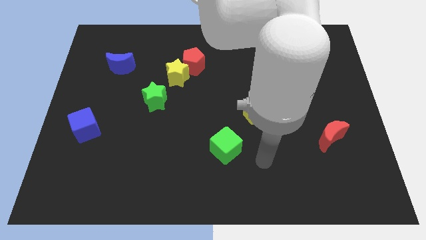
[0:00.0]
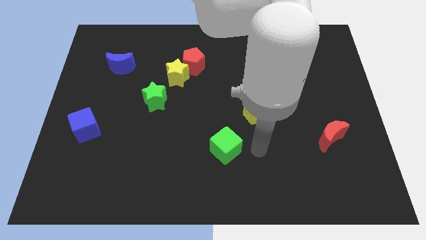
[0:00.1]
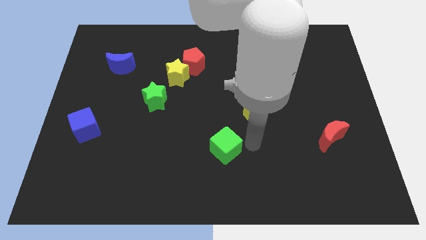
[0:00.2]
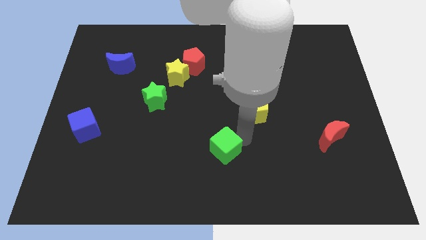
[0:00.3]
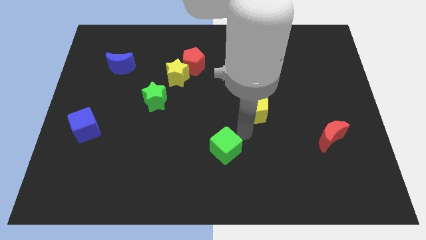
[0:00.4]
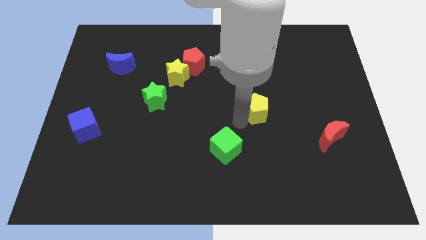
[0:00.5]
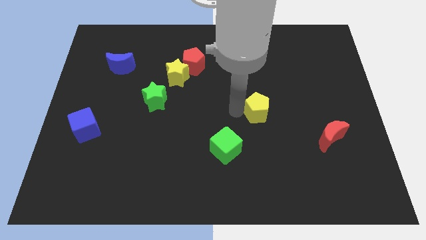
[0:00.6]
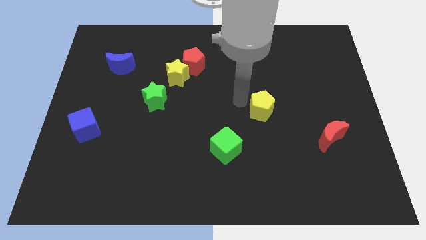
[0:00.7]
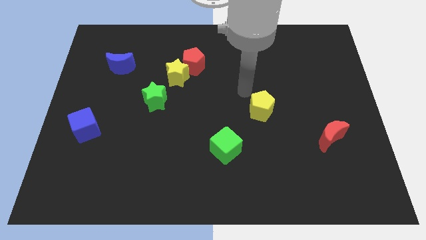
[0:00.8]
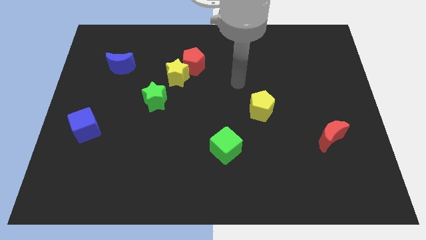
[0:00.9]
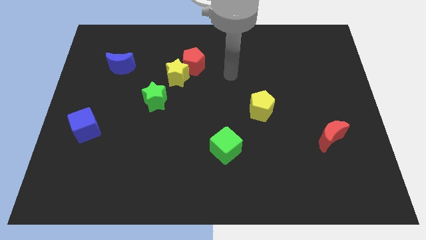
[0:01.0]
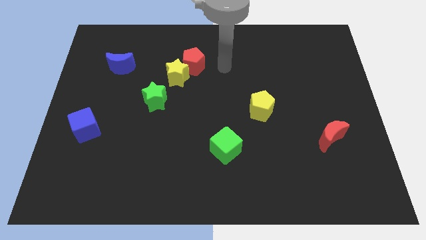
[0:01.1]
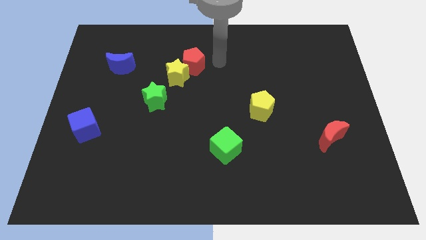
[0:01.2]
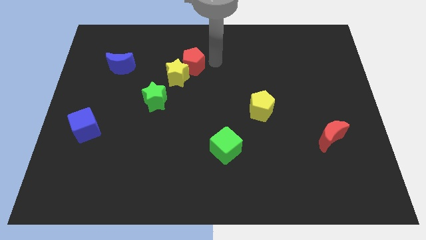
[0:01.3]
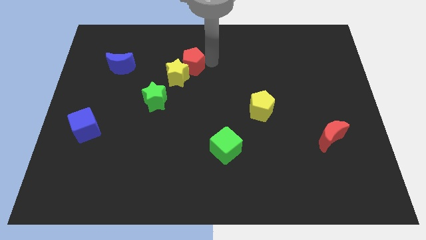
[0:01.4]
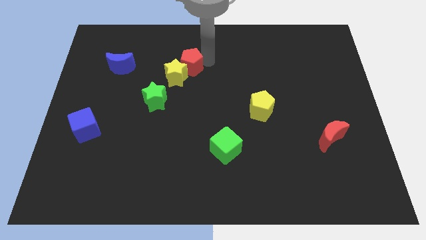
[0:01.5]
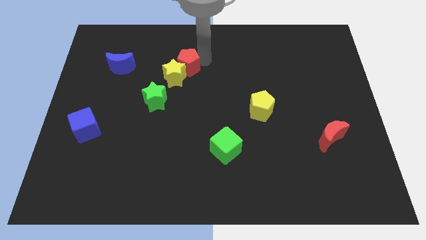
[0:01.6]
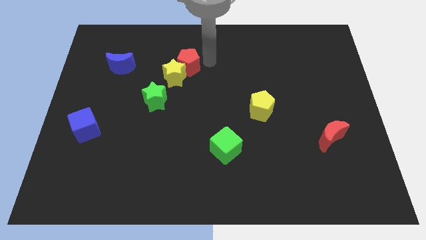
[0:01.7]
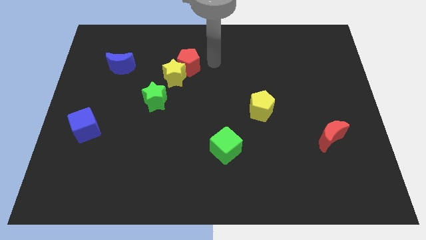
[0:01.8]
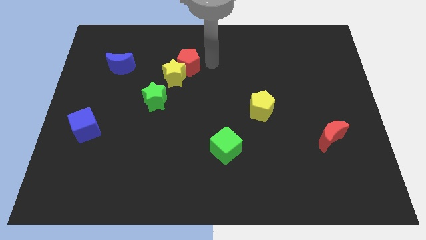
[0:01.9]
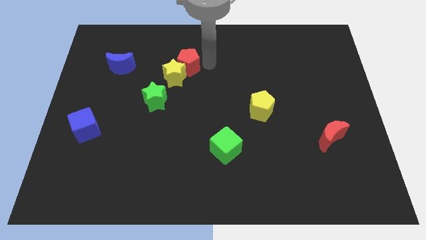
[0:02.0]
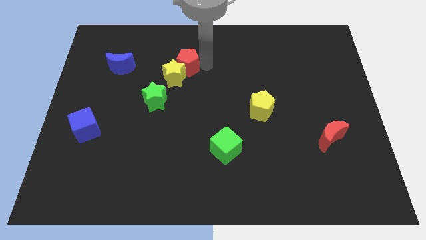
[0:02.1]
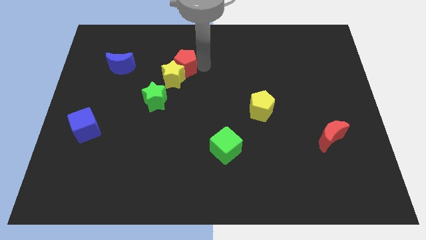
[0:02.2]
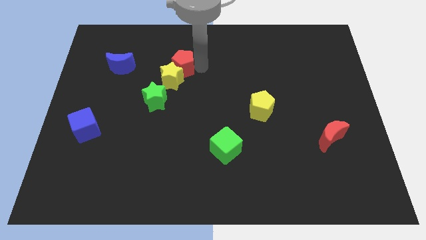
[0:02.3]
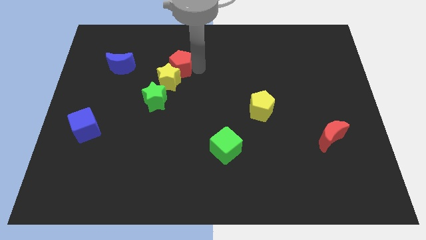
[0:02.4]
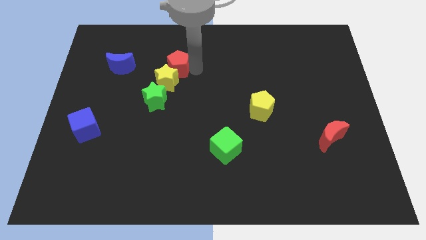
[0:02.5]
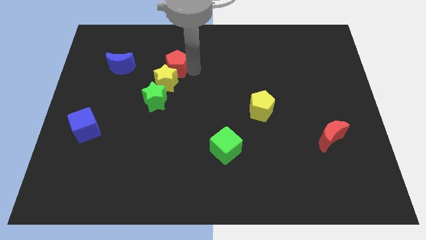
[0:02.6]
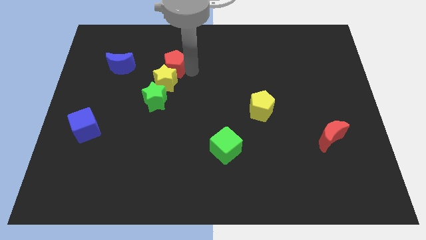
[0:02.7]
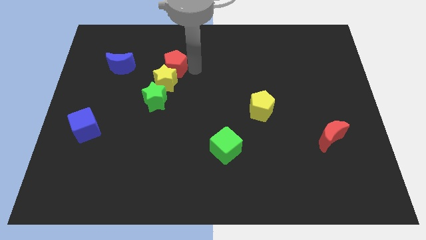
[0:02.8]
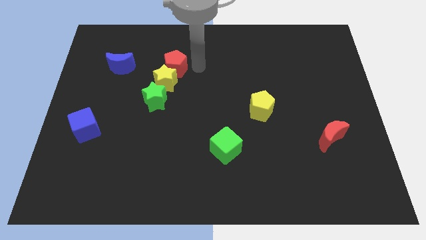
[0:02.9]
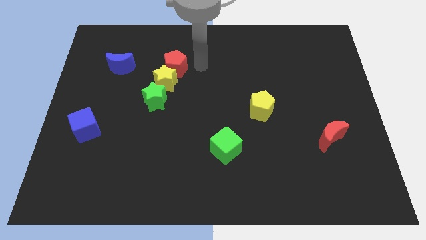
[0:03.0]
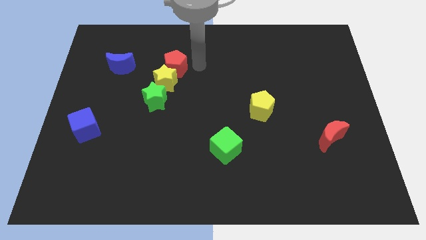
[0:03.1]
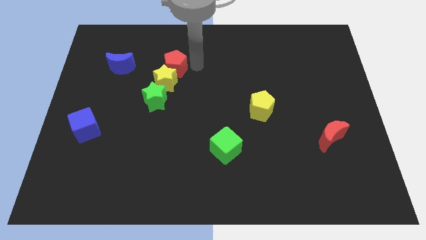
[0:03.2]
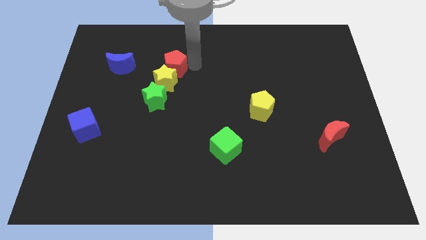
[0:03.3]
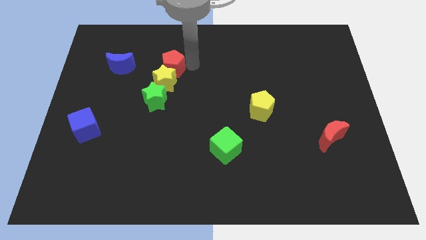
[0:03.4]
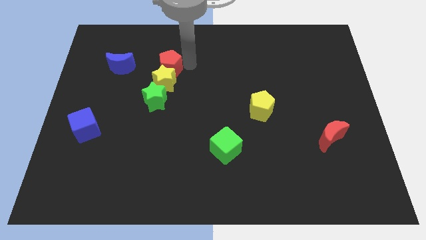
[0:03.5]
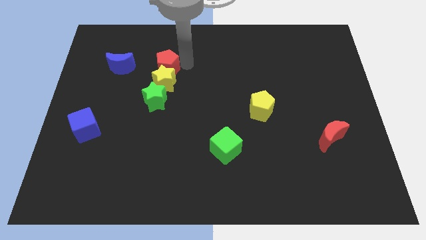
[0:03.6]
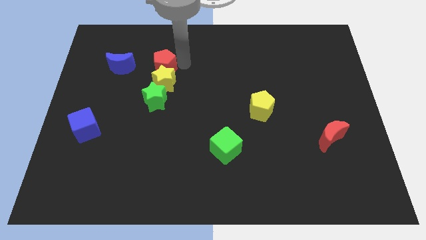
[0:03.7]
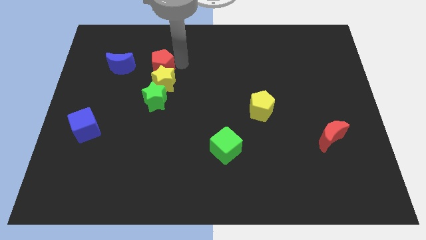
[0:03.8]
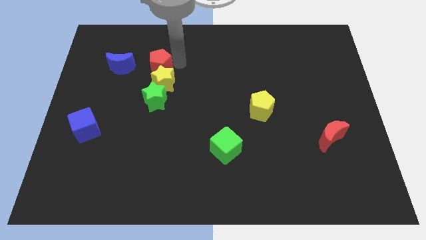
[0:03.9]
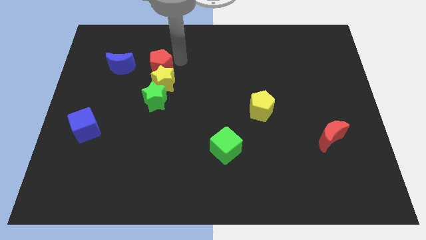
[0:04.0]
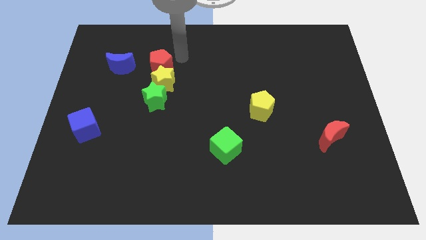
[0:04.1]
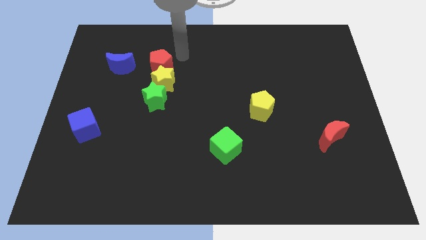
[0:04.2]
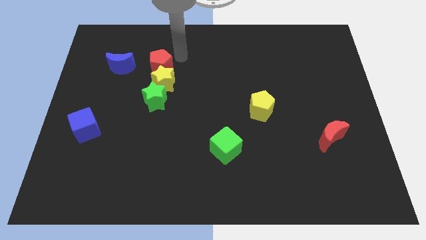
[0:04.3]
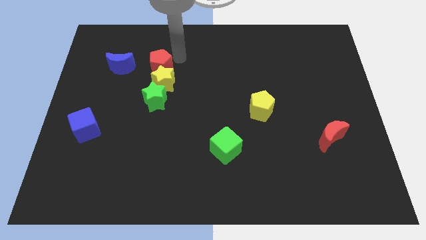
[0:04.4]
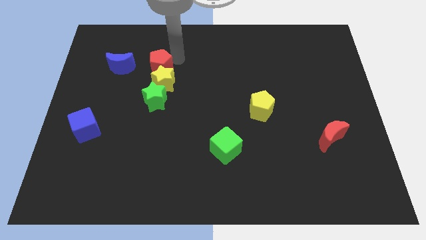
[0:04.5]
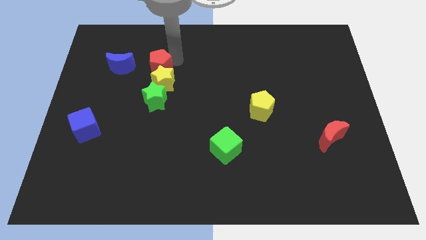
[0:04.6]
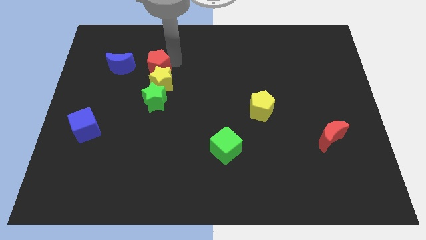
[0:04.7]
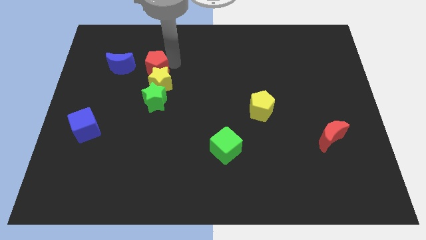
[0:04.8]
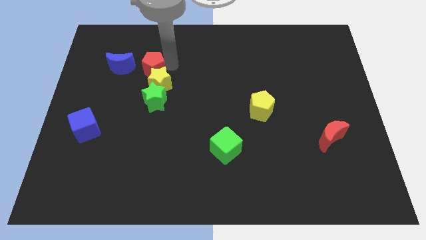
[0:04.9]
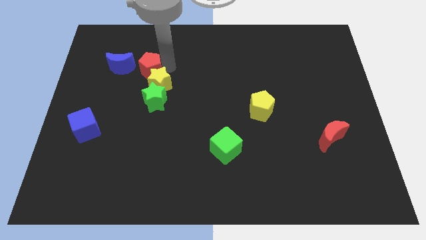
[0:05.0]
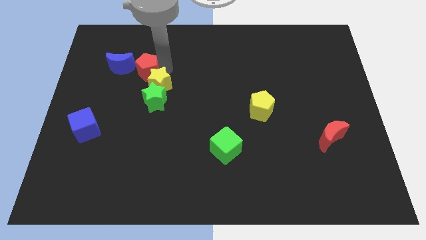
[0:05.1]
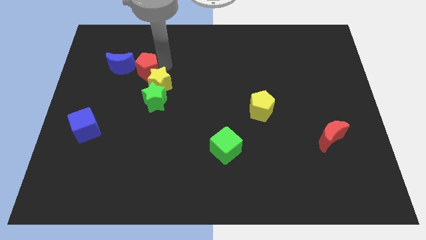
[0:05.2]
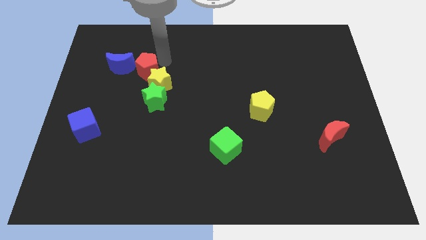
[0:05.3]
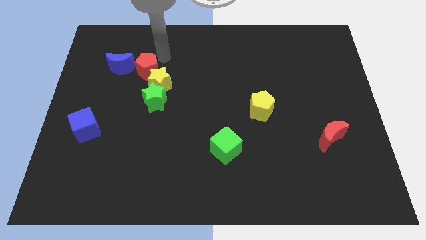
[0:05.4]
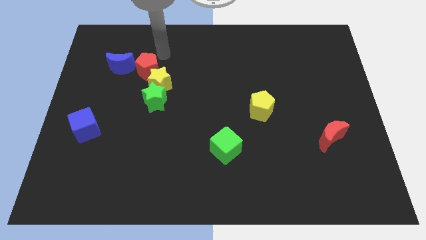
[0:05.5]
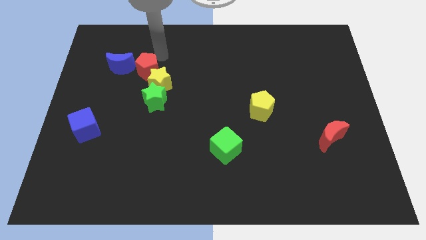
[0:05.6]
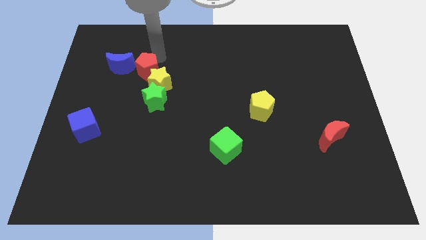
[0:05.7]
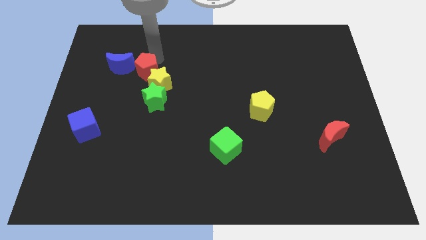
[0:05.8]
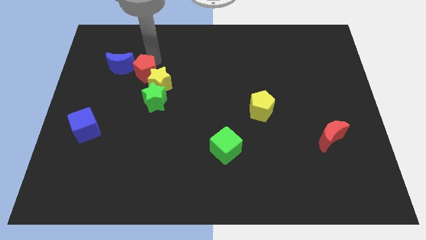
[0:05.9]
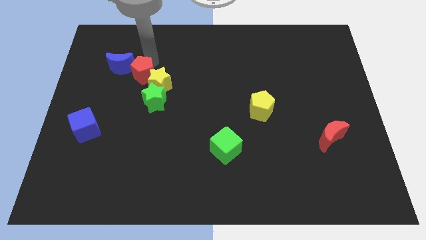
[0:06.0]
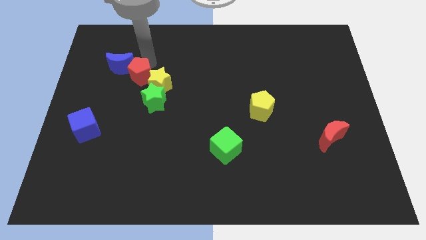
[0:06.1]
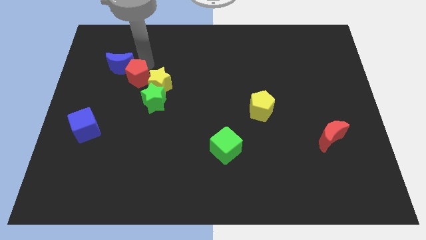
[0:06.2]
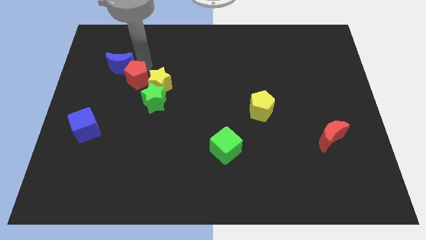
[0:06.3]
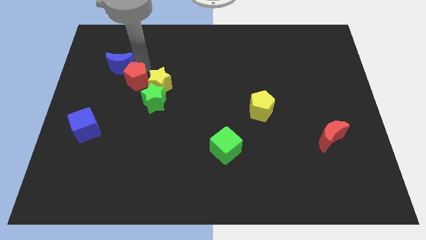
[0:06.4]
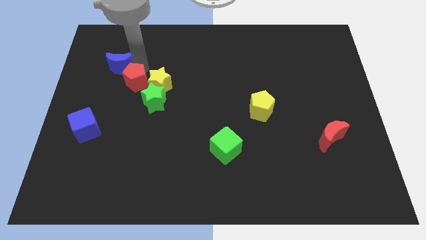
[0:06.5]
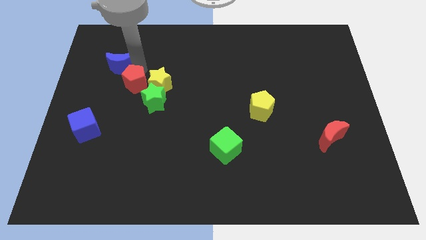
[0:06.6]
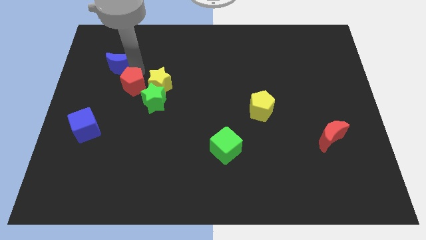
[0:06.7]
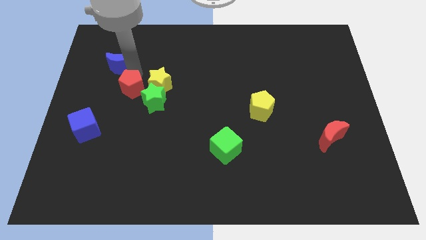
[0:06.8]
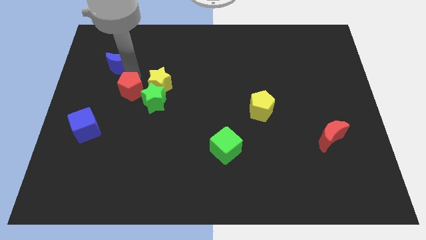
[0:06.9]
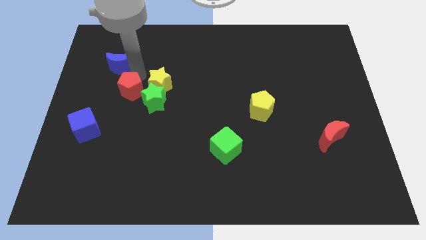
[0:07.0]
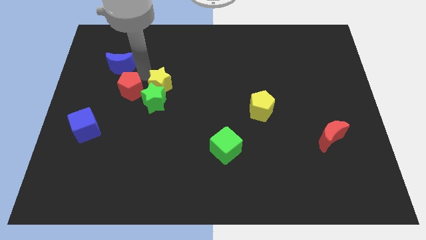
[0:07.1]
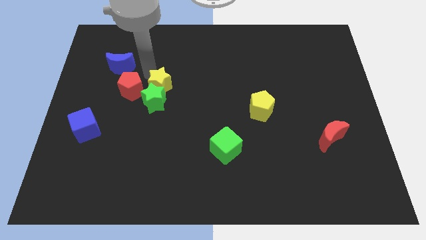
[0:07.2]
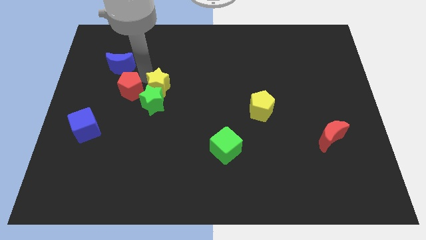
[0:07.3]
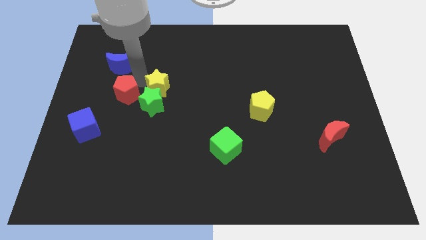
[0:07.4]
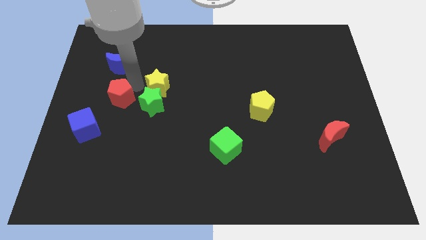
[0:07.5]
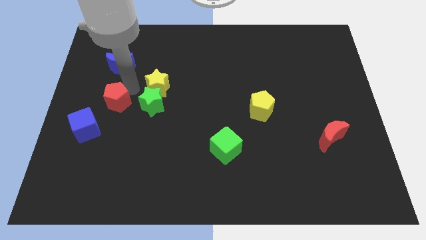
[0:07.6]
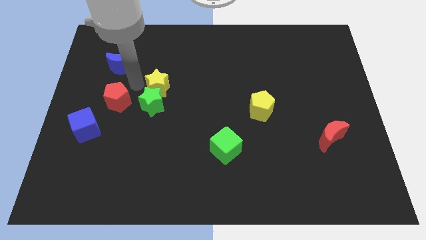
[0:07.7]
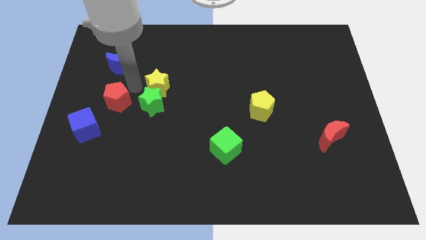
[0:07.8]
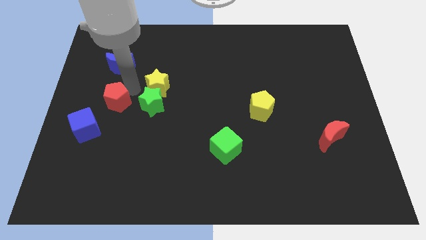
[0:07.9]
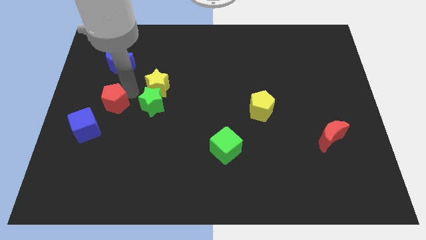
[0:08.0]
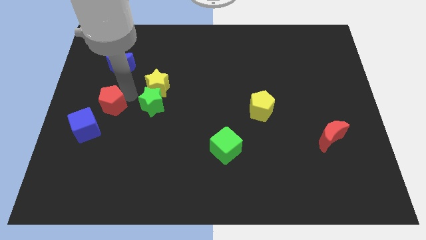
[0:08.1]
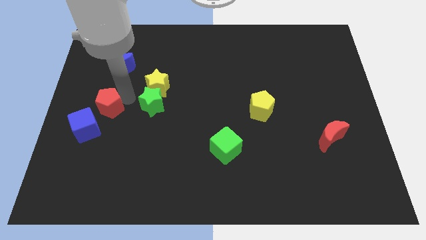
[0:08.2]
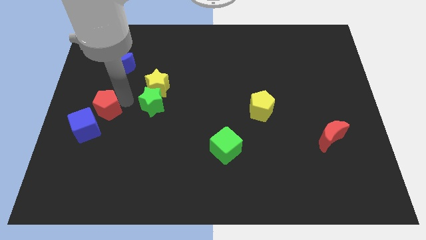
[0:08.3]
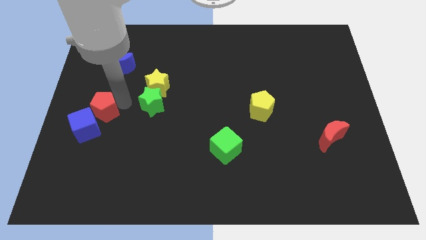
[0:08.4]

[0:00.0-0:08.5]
push the red pentagon next to the blue cube
